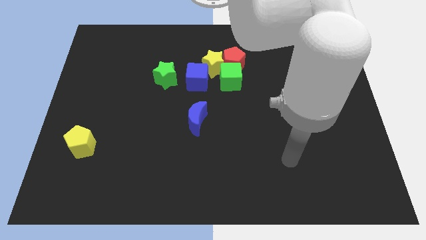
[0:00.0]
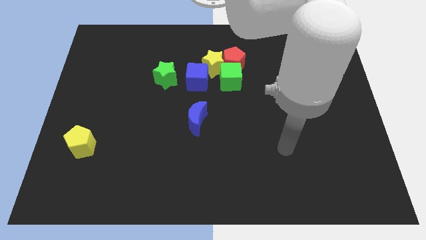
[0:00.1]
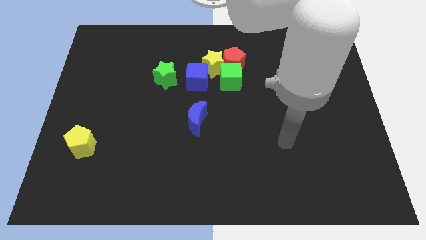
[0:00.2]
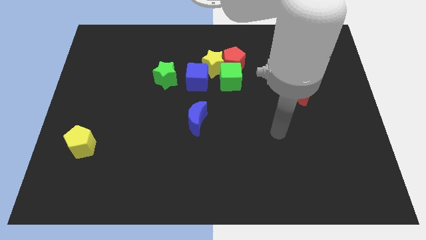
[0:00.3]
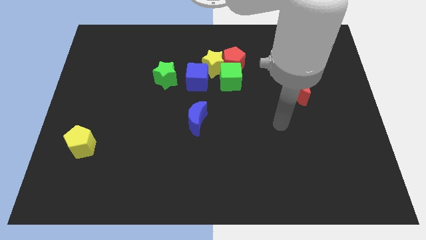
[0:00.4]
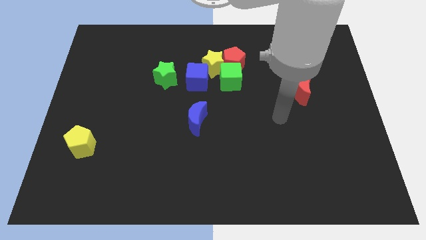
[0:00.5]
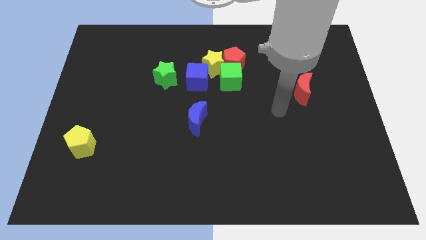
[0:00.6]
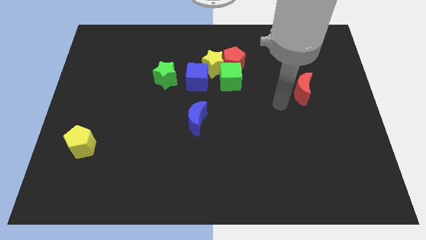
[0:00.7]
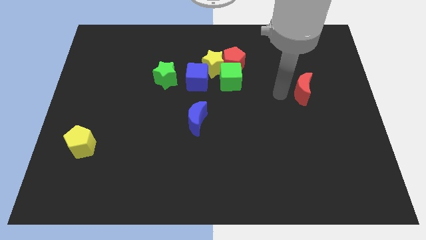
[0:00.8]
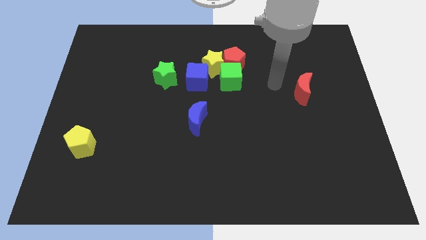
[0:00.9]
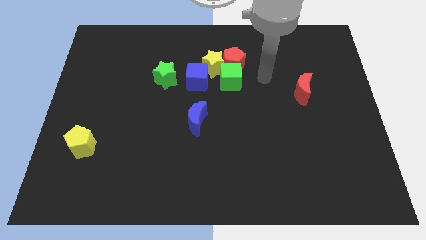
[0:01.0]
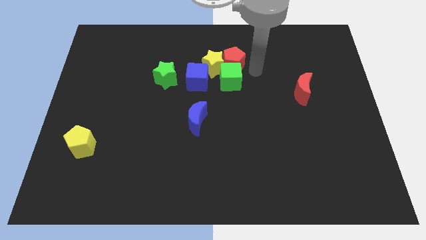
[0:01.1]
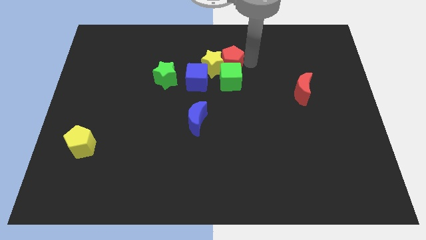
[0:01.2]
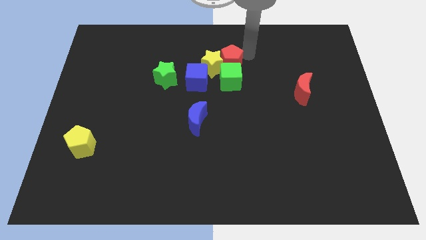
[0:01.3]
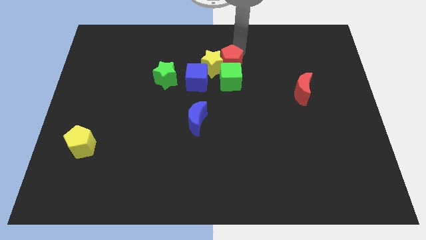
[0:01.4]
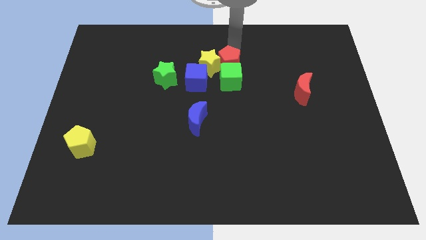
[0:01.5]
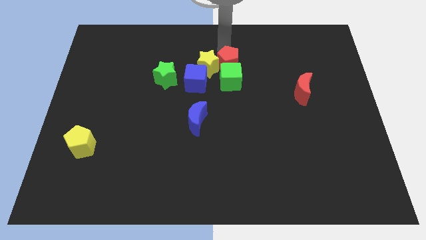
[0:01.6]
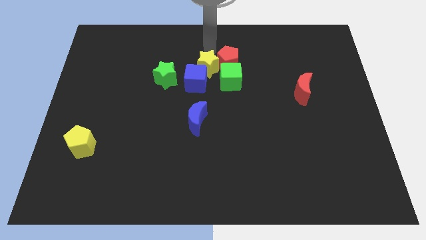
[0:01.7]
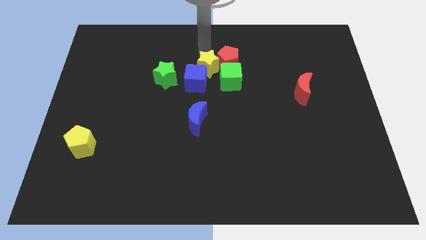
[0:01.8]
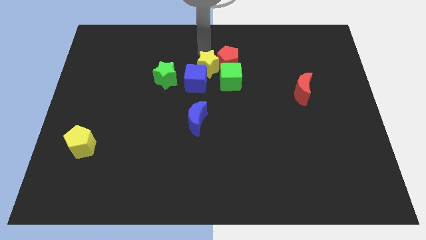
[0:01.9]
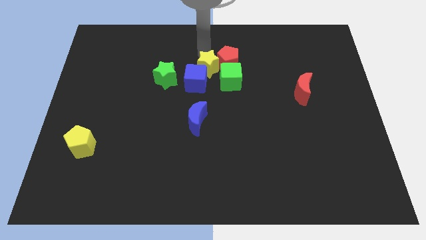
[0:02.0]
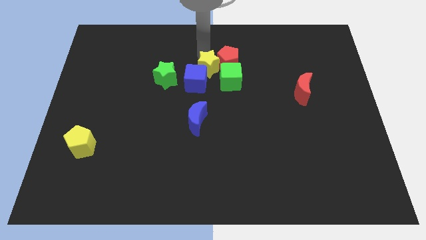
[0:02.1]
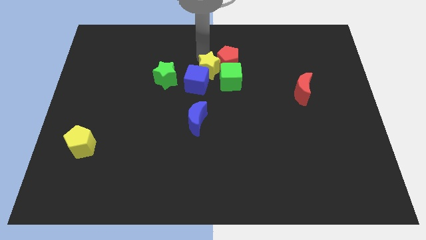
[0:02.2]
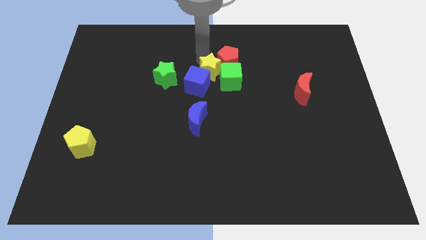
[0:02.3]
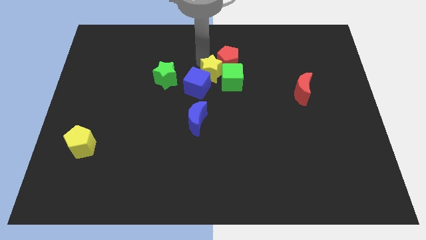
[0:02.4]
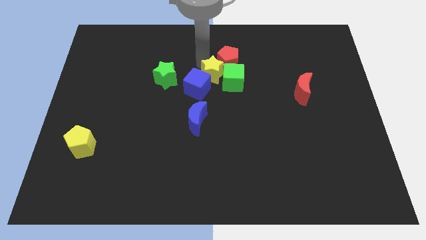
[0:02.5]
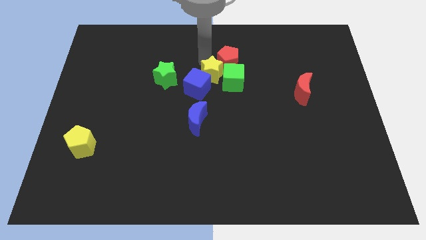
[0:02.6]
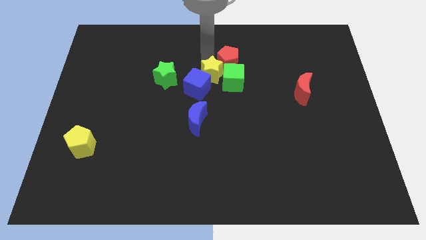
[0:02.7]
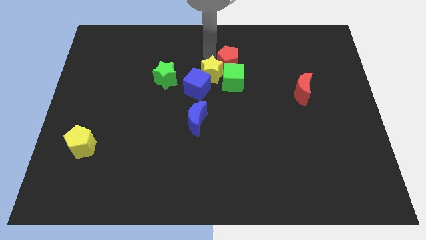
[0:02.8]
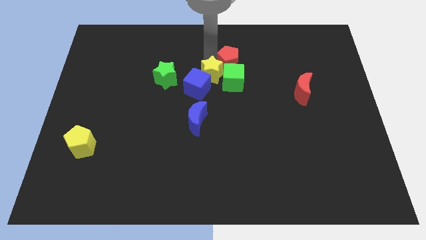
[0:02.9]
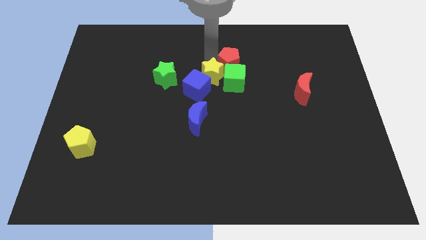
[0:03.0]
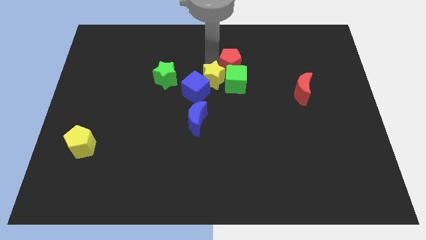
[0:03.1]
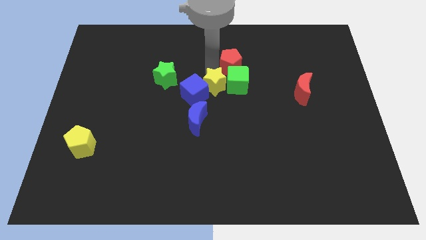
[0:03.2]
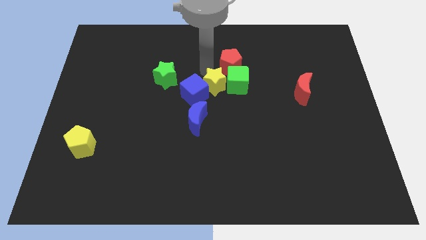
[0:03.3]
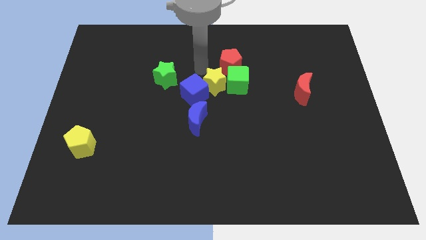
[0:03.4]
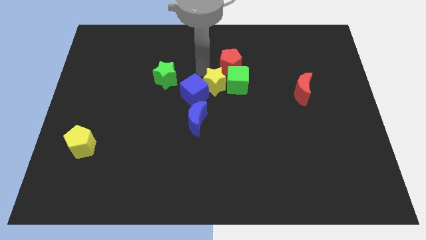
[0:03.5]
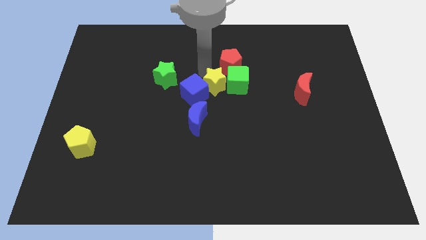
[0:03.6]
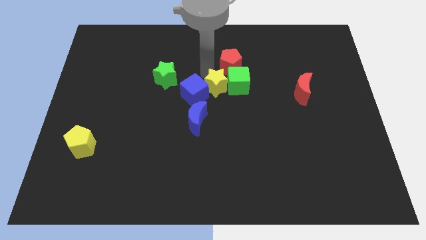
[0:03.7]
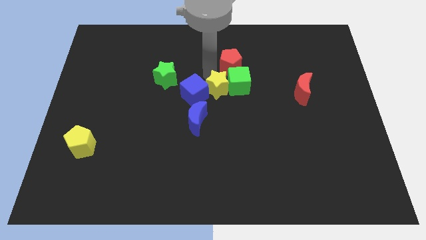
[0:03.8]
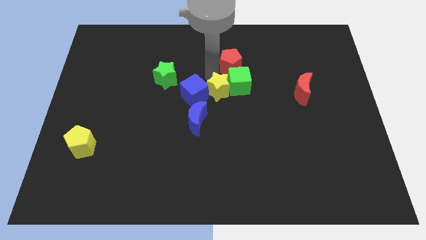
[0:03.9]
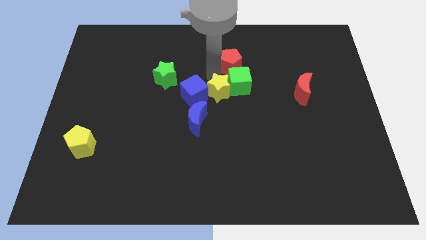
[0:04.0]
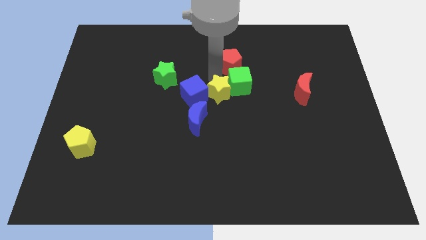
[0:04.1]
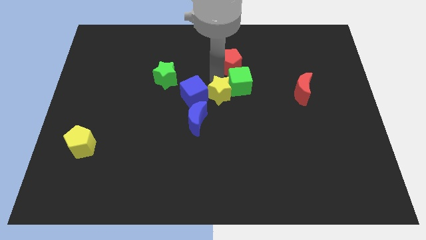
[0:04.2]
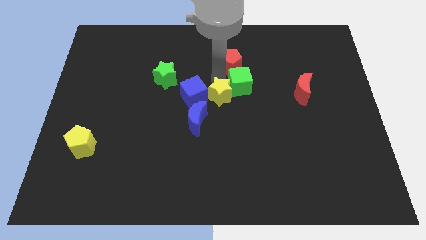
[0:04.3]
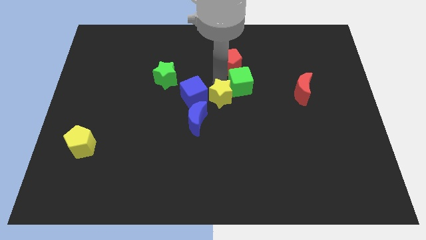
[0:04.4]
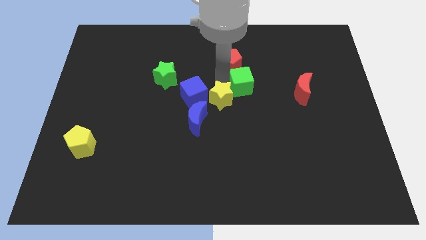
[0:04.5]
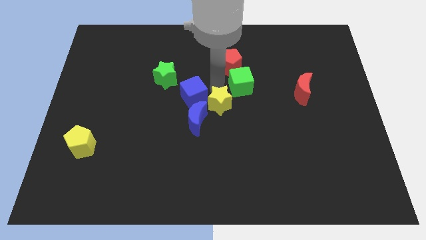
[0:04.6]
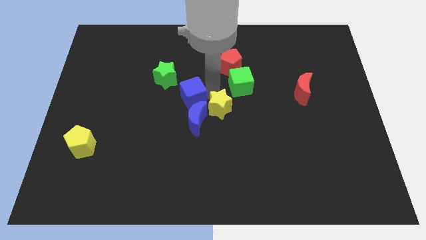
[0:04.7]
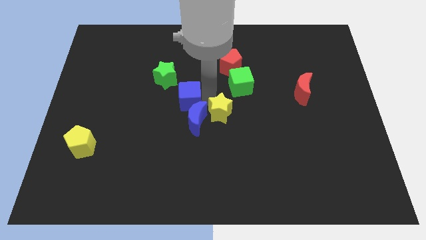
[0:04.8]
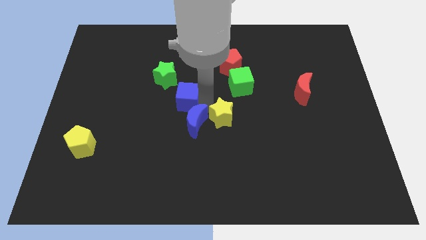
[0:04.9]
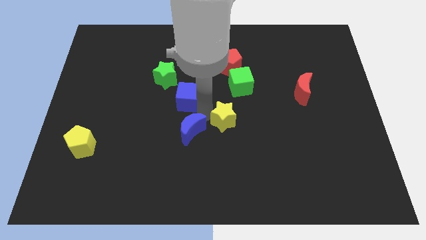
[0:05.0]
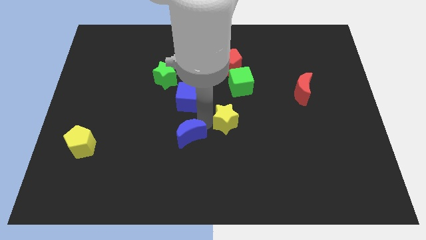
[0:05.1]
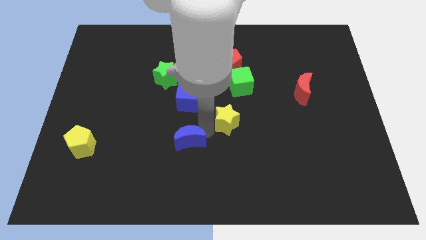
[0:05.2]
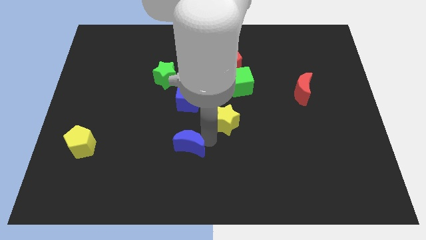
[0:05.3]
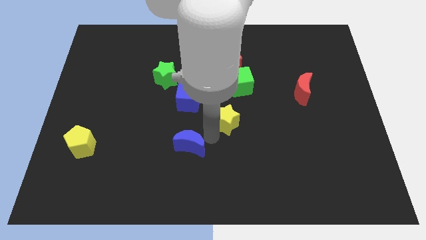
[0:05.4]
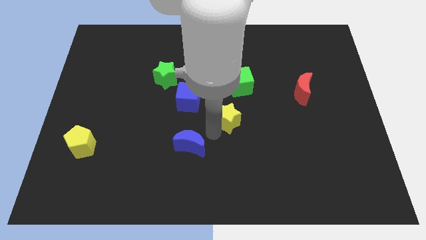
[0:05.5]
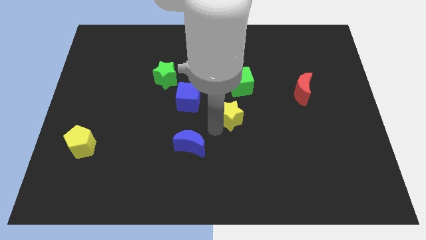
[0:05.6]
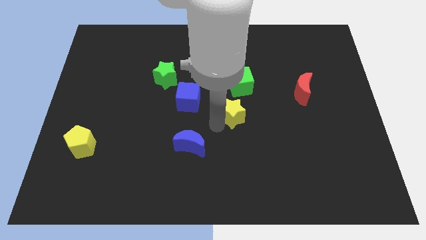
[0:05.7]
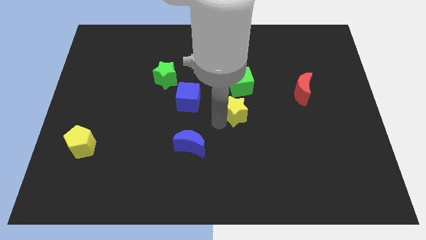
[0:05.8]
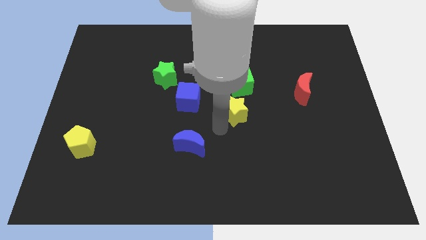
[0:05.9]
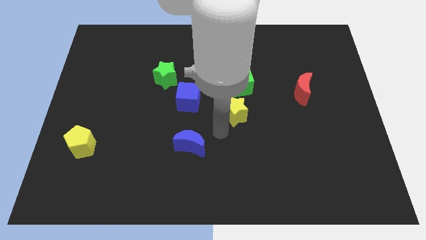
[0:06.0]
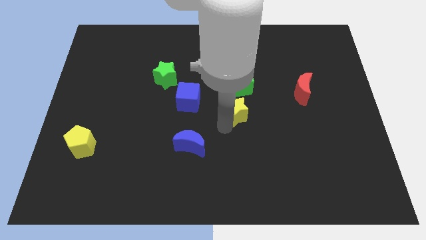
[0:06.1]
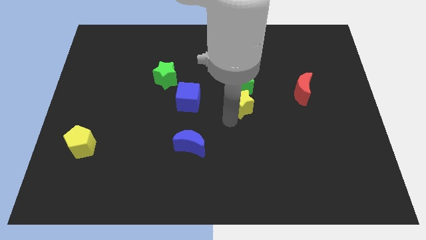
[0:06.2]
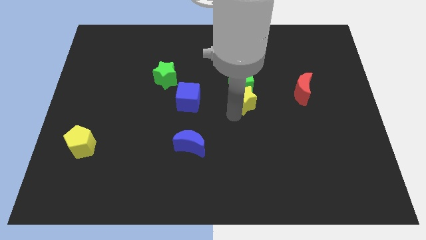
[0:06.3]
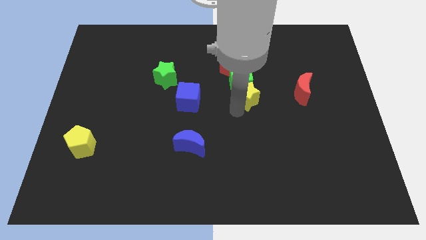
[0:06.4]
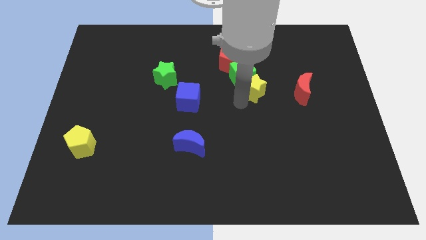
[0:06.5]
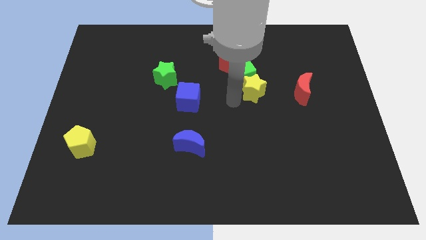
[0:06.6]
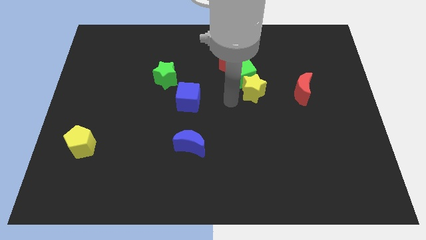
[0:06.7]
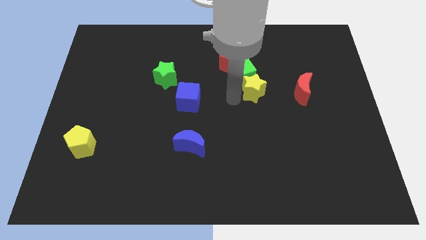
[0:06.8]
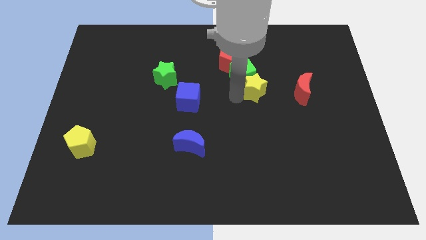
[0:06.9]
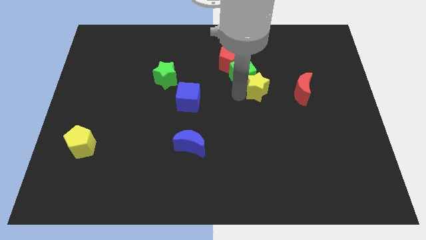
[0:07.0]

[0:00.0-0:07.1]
put the yellow star to the right side of the green cube
